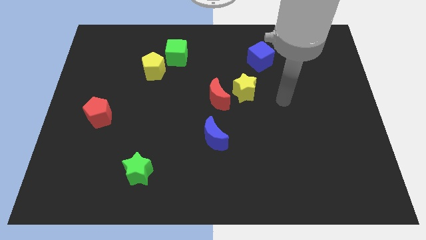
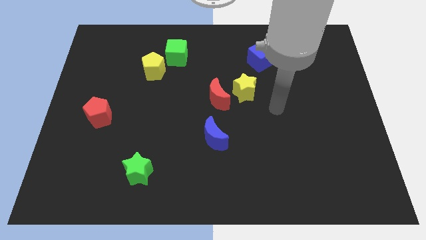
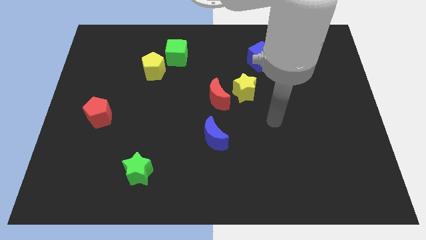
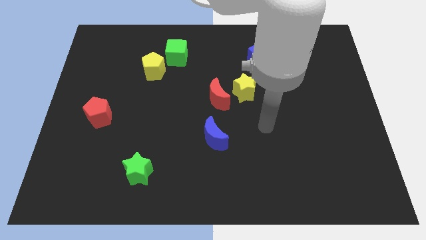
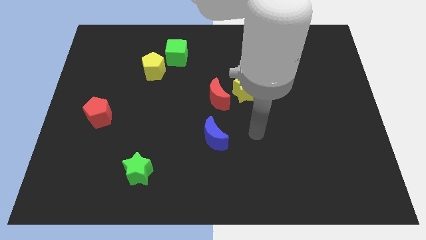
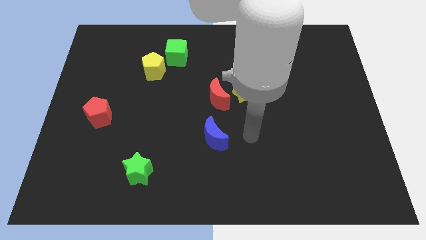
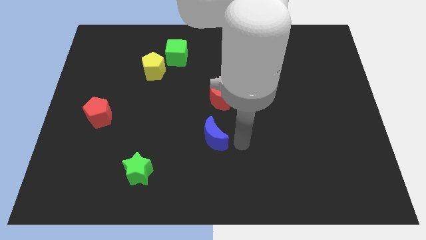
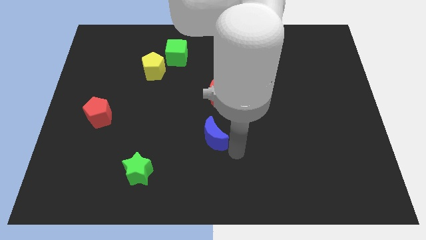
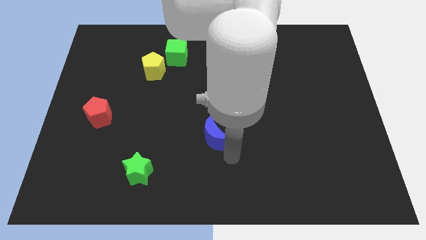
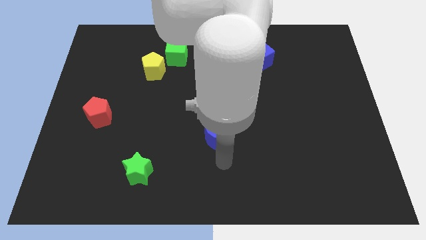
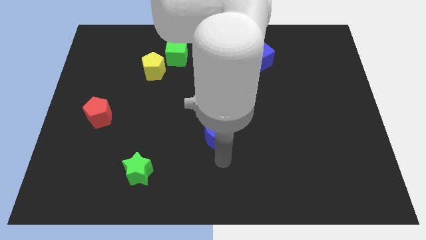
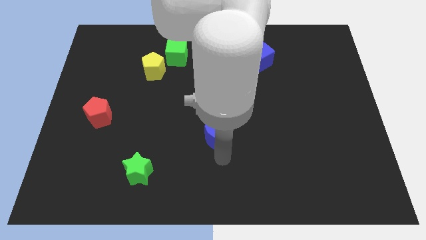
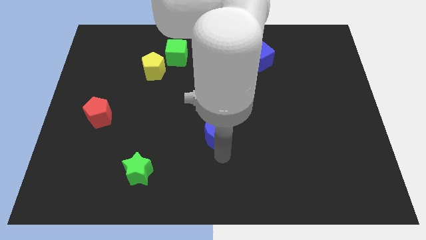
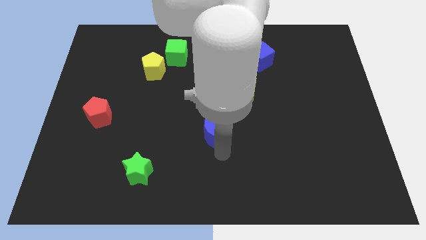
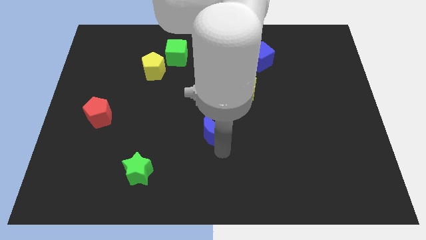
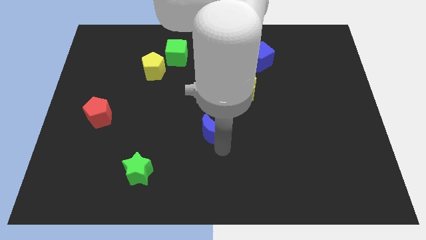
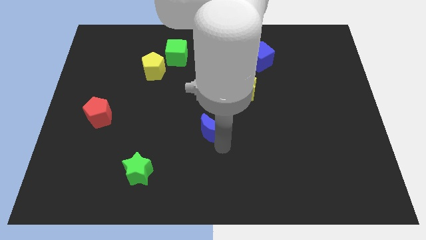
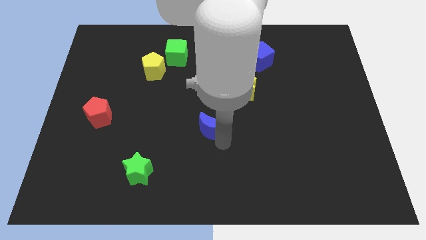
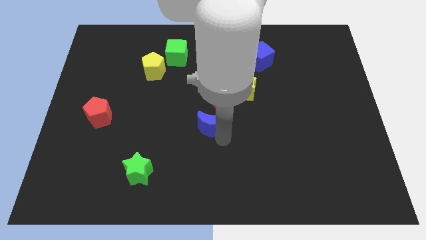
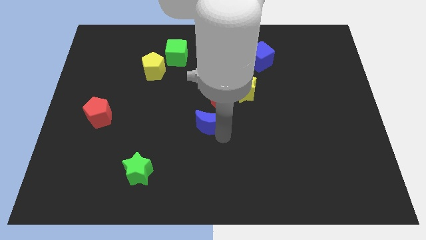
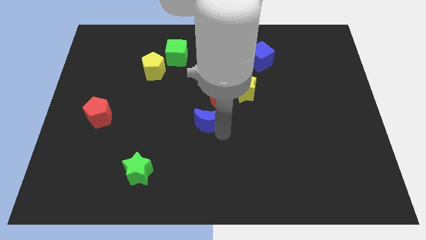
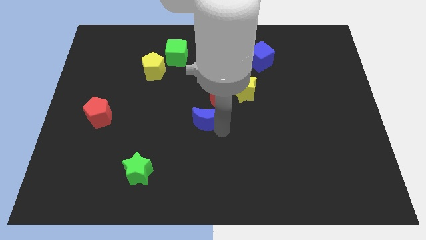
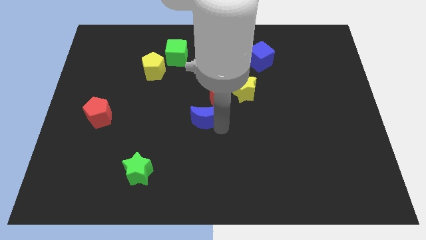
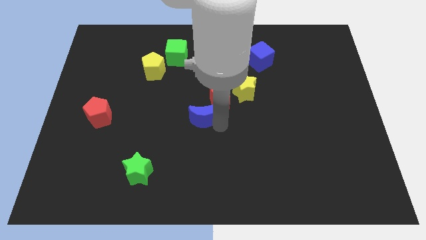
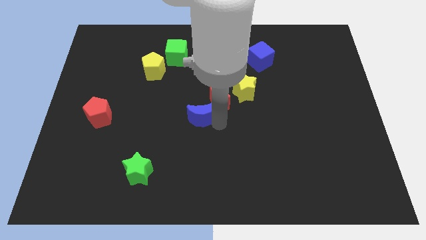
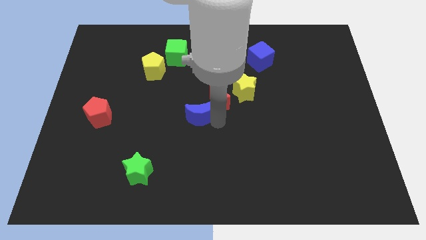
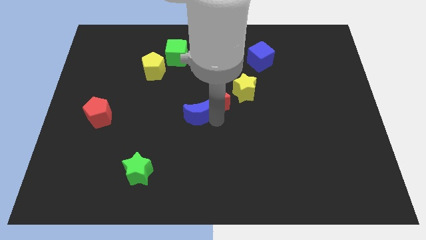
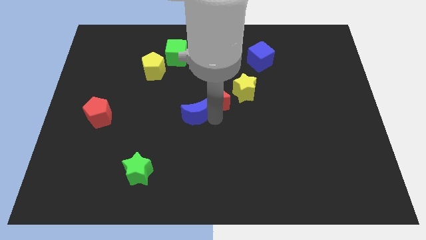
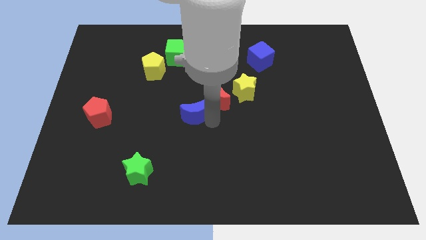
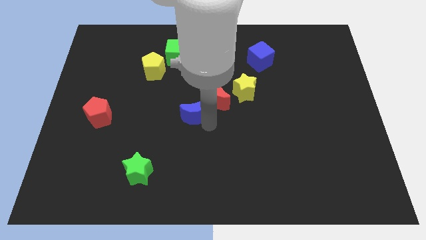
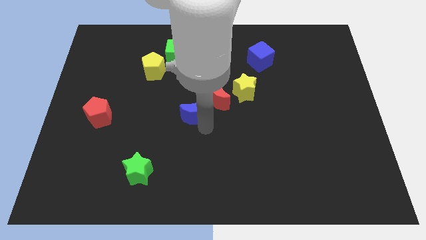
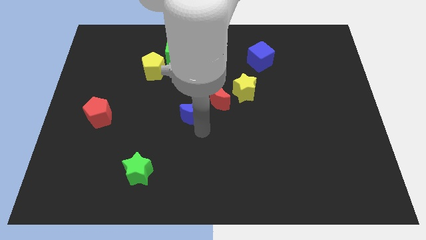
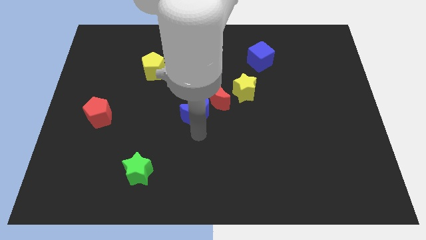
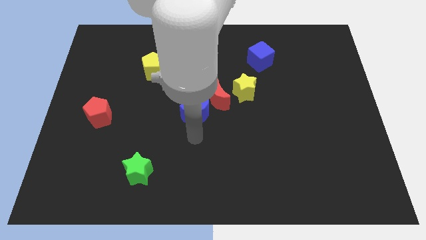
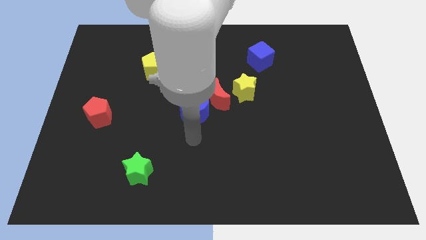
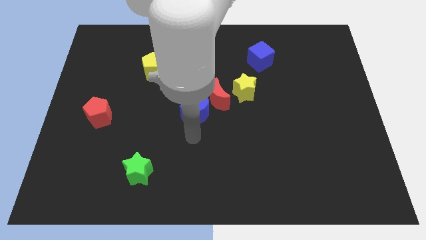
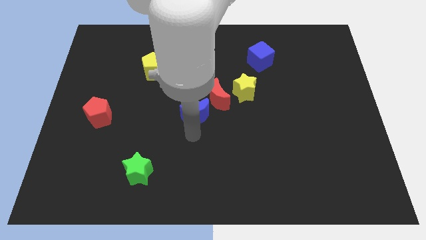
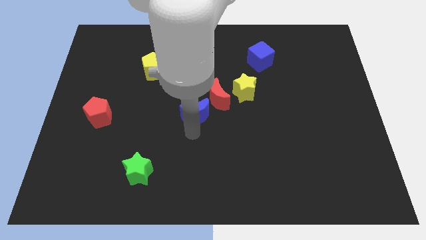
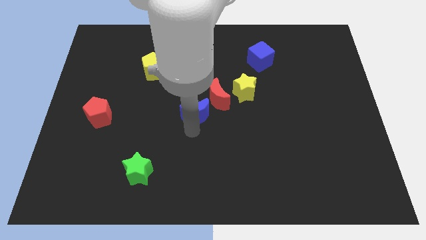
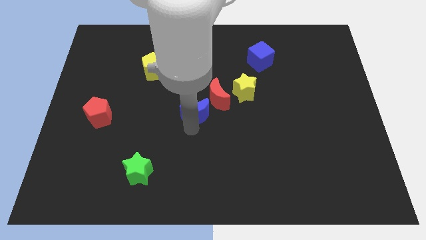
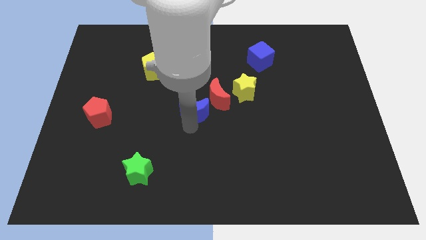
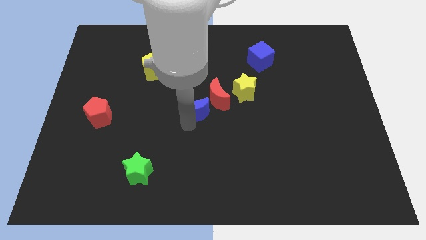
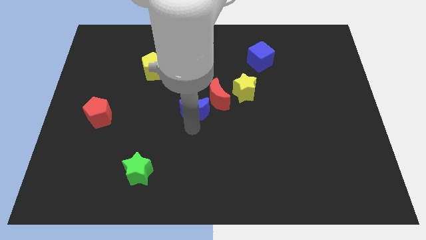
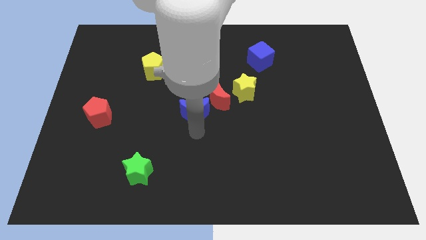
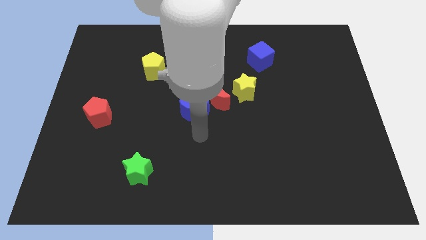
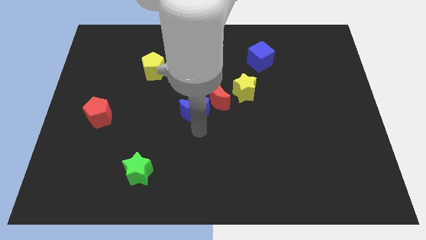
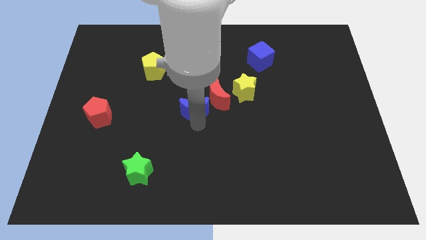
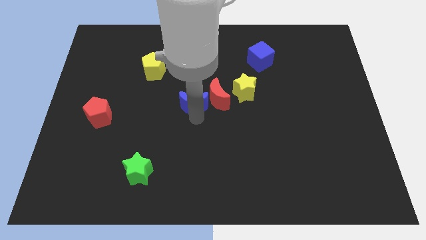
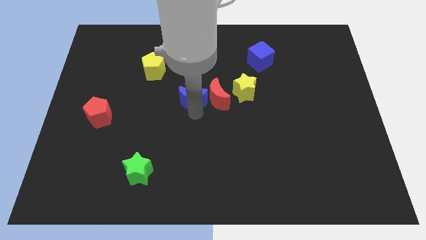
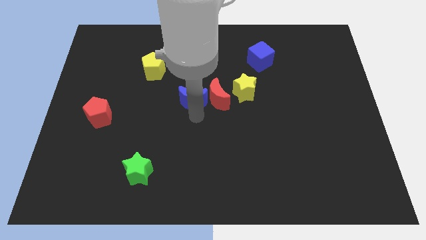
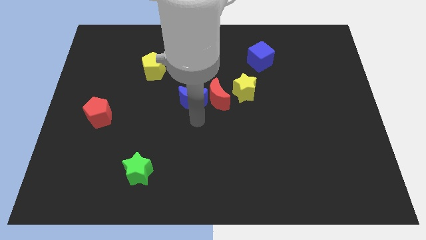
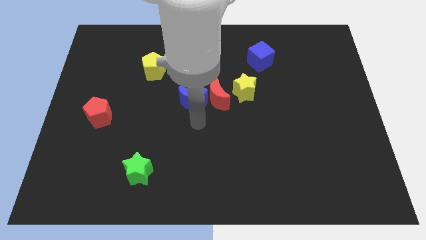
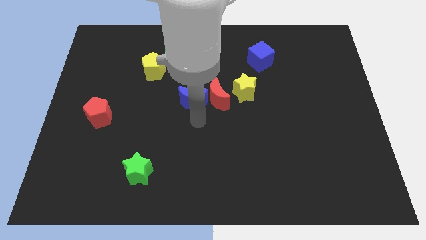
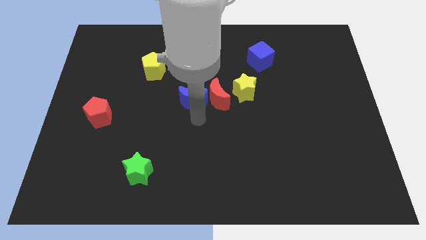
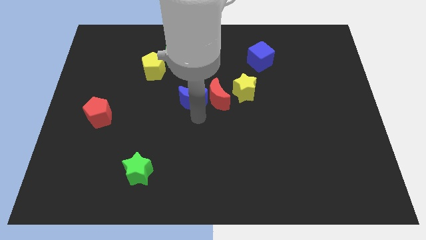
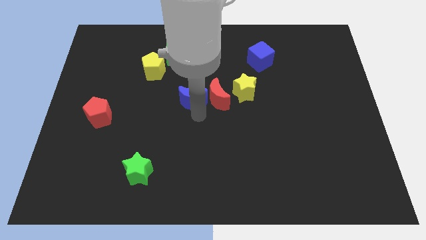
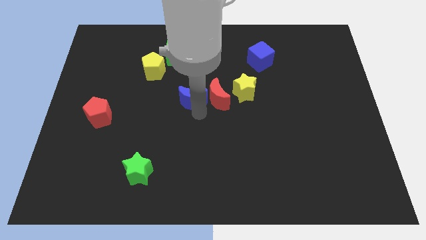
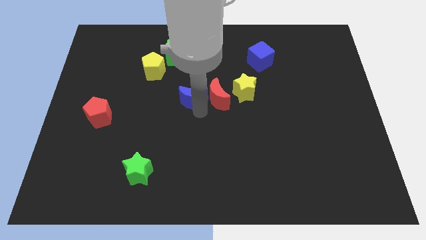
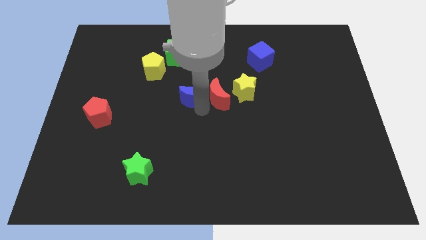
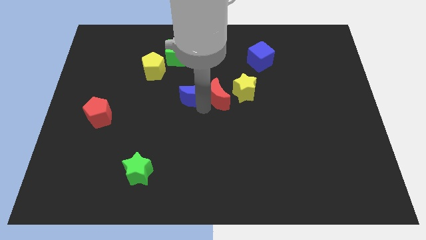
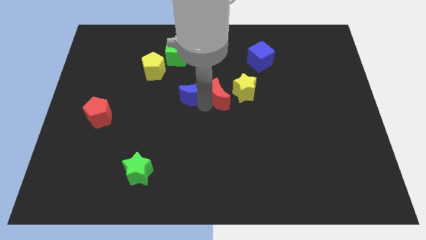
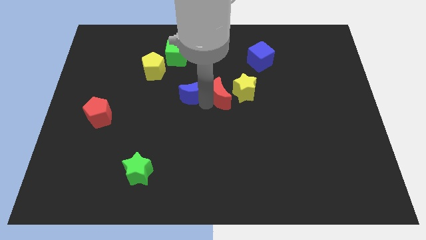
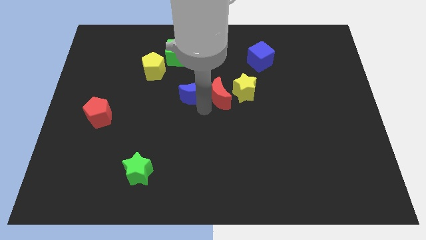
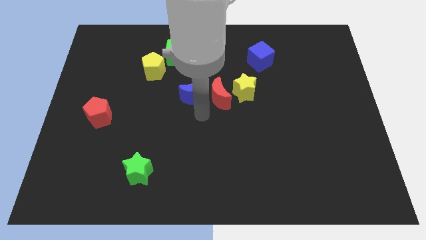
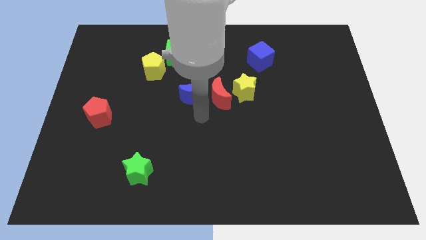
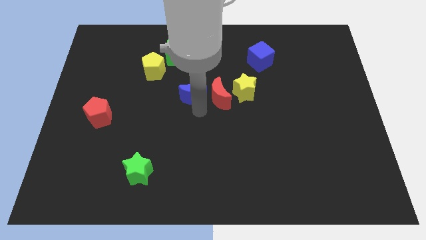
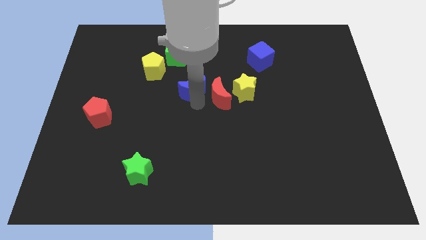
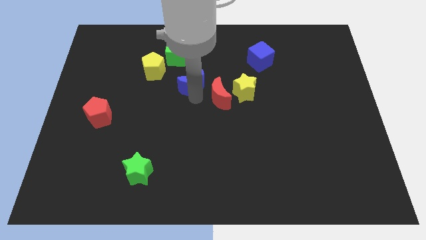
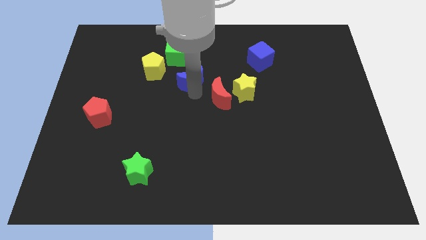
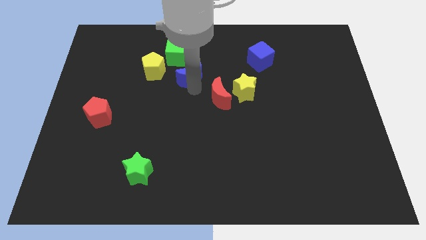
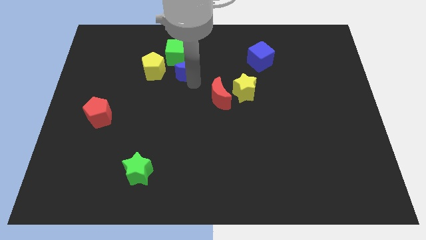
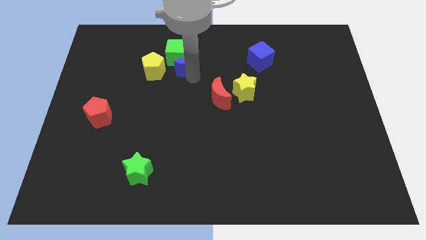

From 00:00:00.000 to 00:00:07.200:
put the blue moon to the green cube
